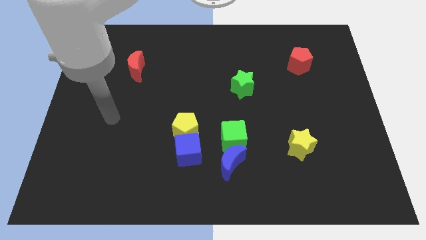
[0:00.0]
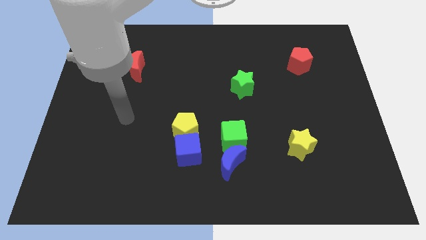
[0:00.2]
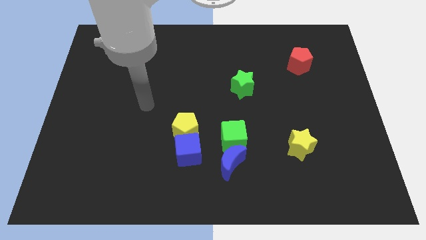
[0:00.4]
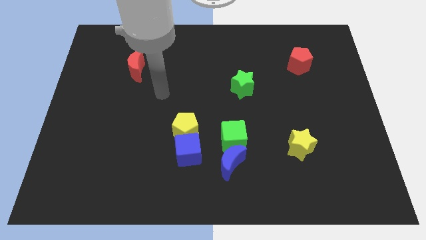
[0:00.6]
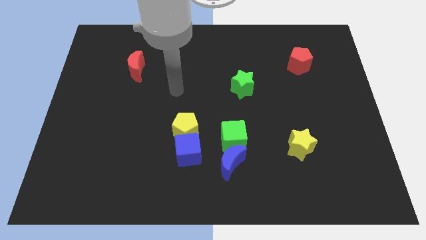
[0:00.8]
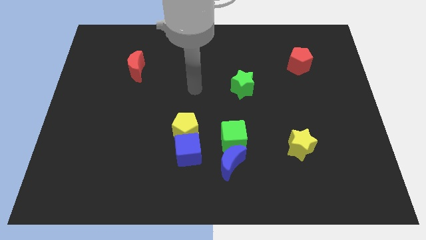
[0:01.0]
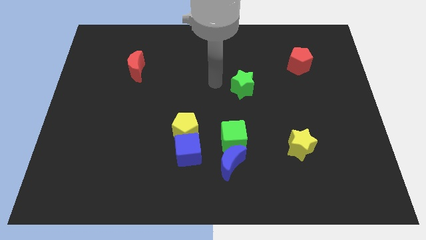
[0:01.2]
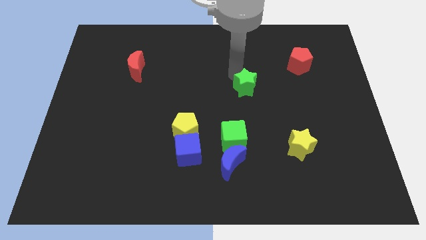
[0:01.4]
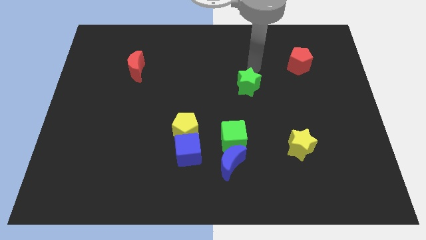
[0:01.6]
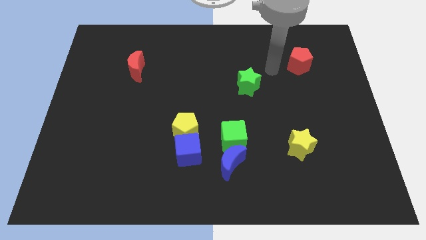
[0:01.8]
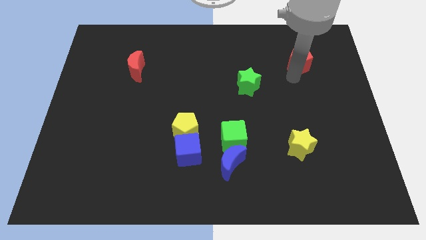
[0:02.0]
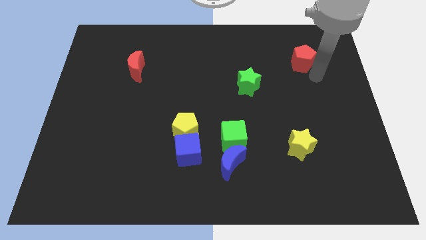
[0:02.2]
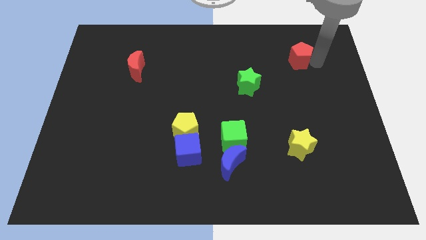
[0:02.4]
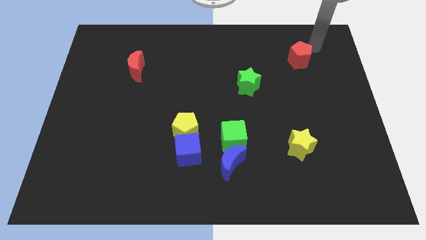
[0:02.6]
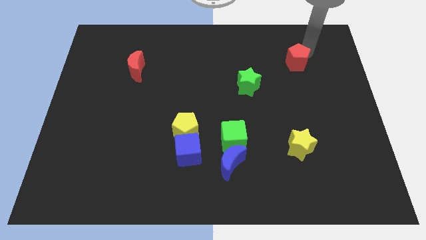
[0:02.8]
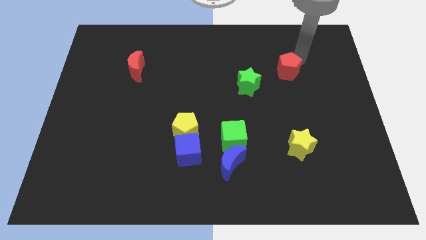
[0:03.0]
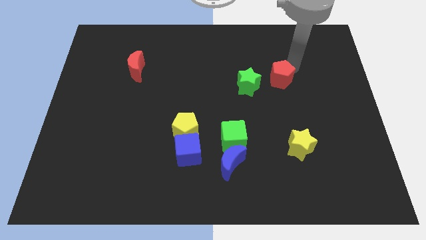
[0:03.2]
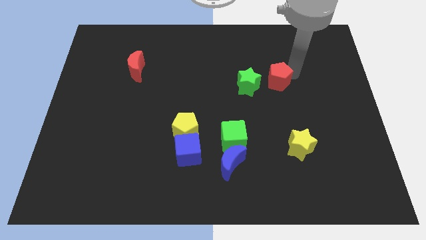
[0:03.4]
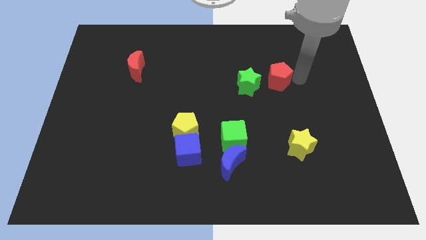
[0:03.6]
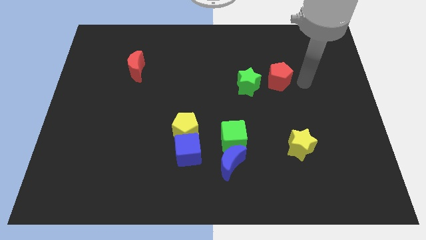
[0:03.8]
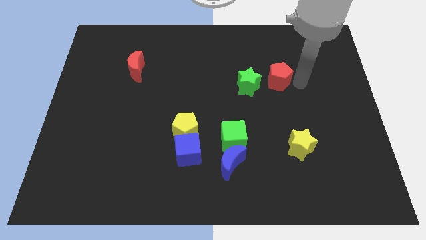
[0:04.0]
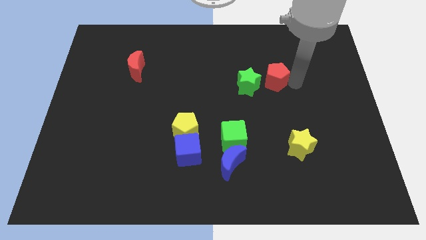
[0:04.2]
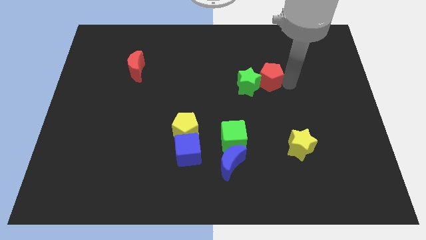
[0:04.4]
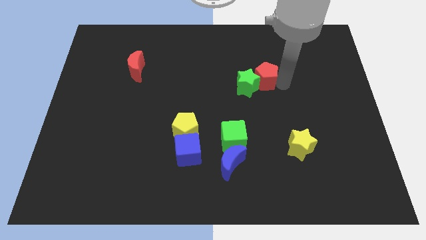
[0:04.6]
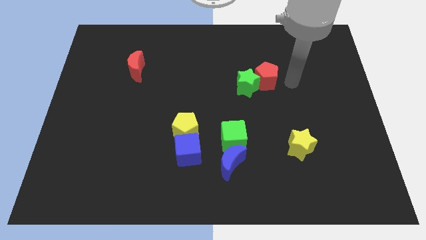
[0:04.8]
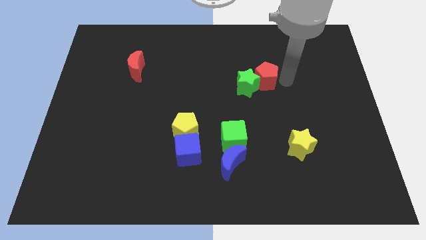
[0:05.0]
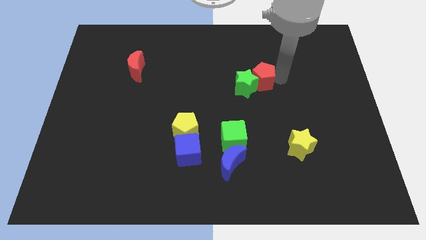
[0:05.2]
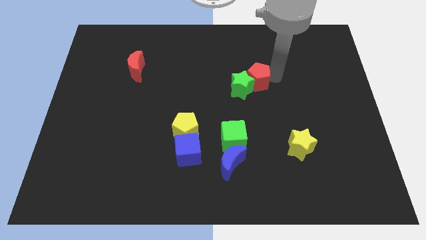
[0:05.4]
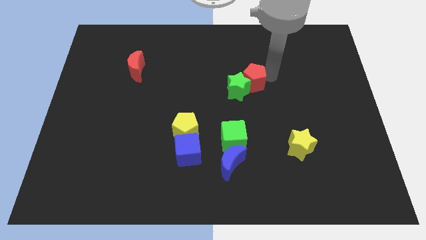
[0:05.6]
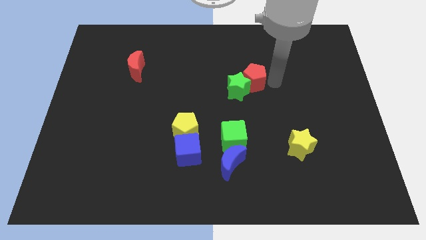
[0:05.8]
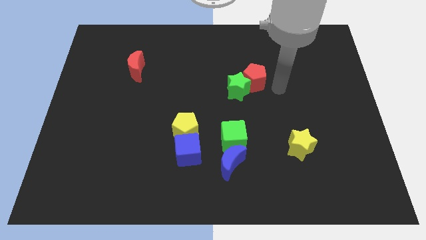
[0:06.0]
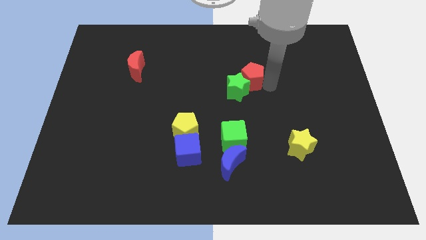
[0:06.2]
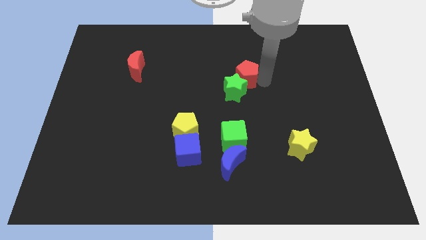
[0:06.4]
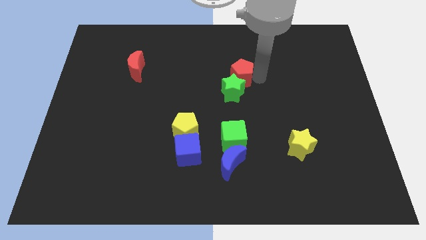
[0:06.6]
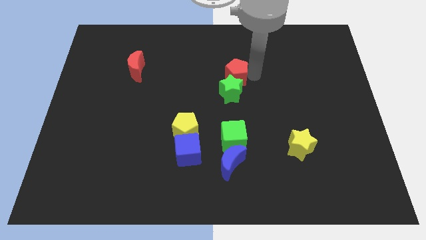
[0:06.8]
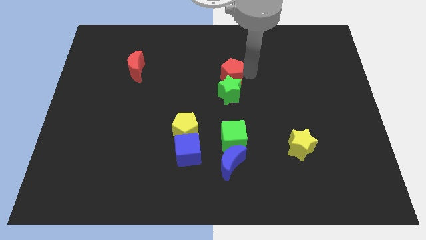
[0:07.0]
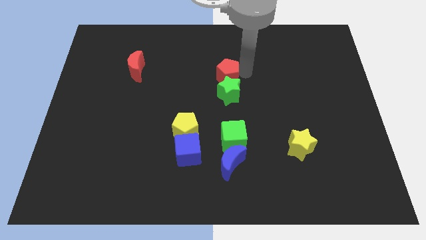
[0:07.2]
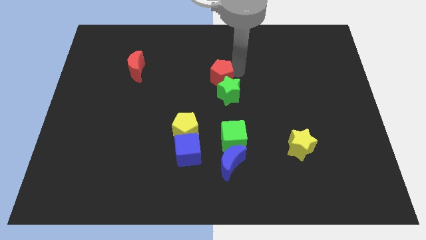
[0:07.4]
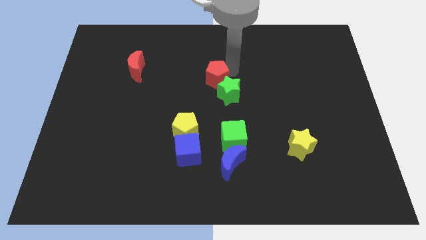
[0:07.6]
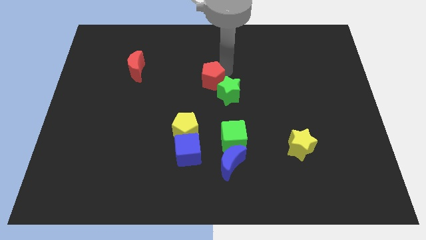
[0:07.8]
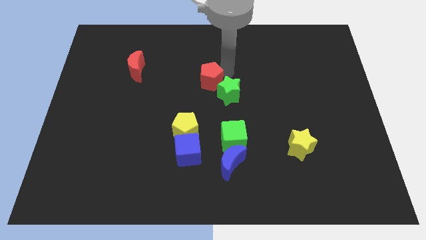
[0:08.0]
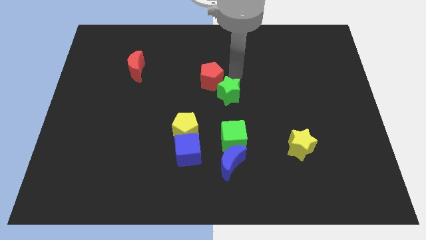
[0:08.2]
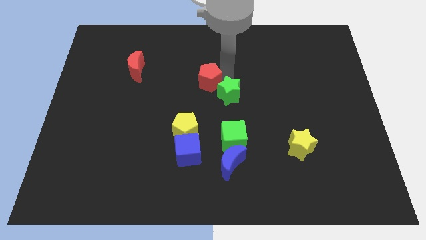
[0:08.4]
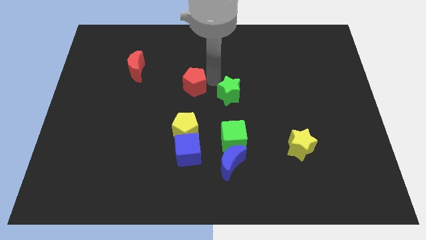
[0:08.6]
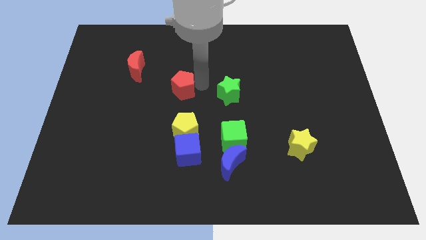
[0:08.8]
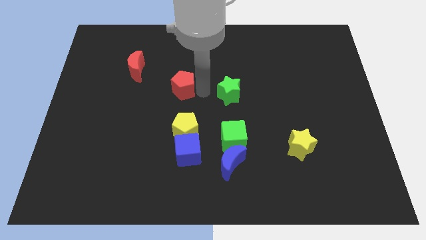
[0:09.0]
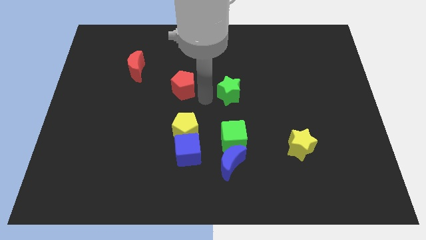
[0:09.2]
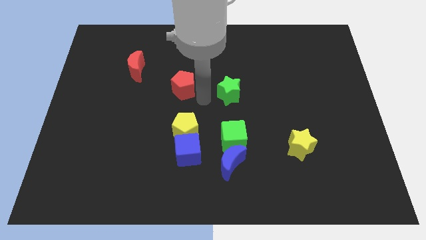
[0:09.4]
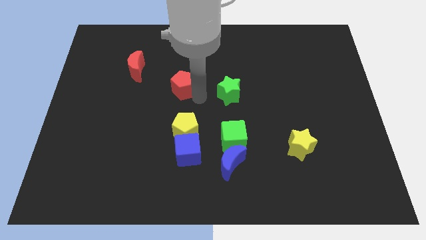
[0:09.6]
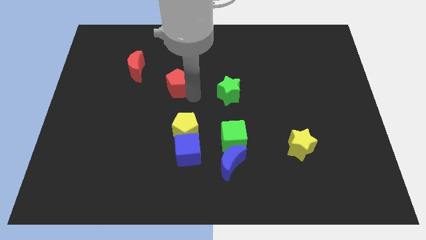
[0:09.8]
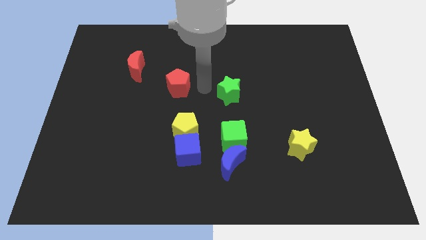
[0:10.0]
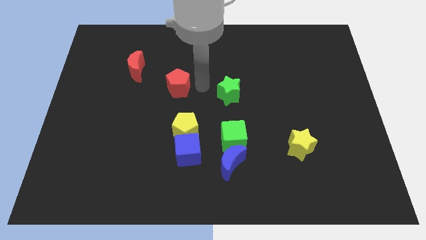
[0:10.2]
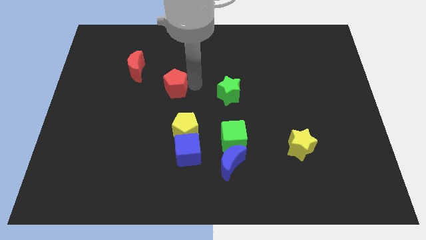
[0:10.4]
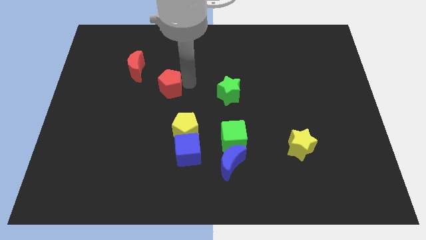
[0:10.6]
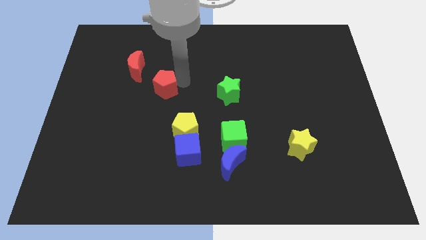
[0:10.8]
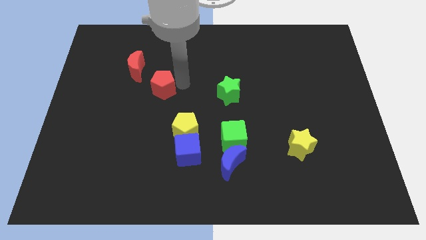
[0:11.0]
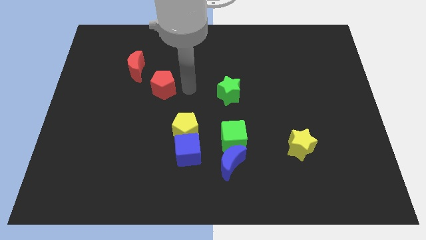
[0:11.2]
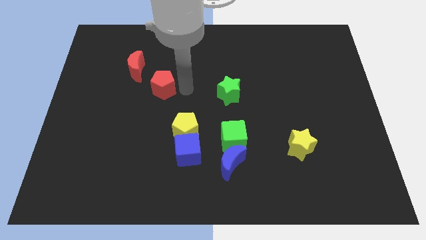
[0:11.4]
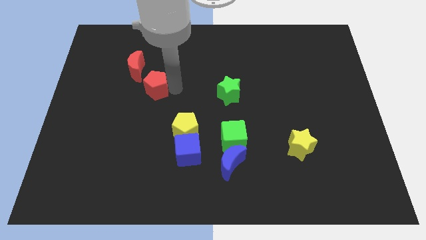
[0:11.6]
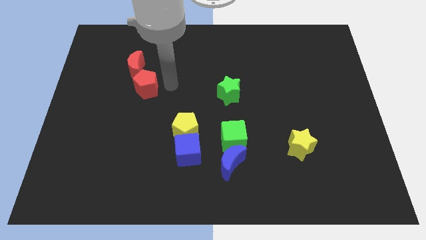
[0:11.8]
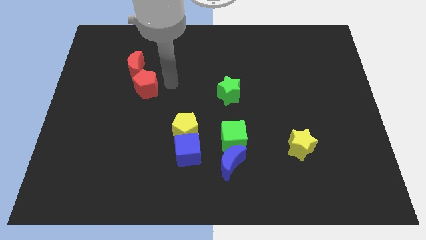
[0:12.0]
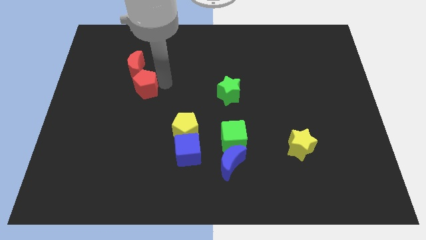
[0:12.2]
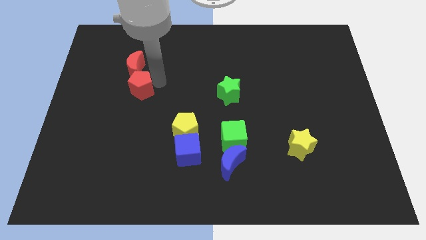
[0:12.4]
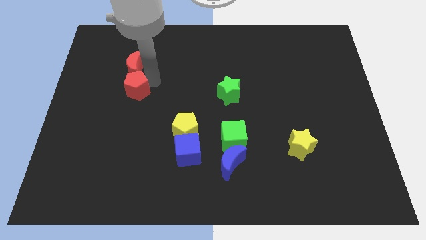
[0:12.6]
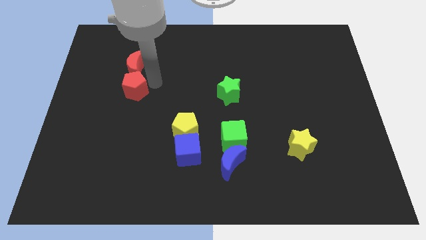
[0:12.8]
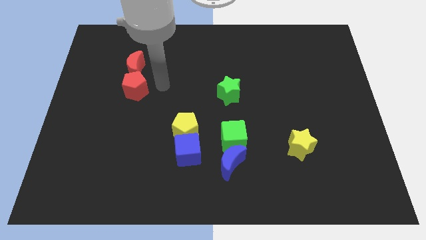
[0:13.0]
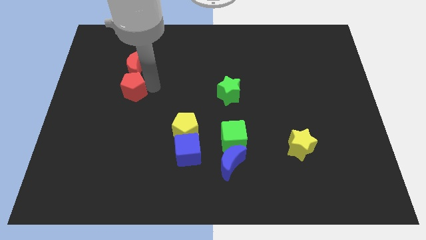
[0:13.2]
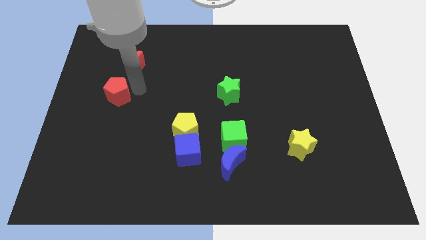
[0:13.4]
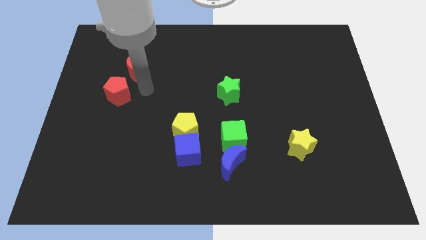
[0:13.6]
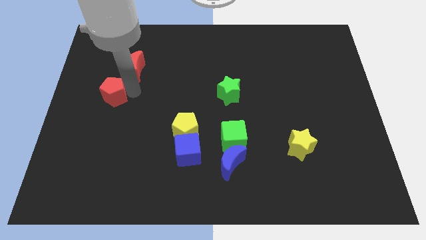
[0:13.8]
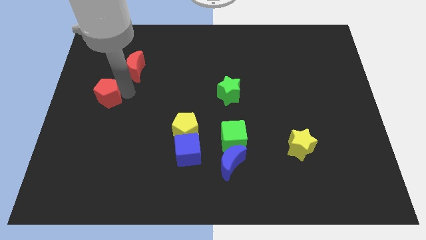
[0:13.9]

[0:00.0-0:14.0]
push the red pentagon to the center left
